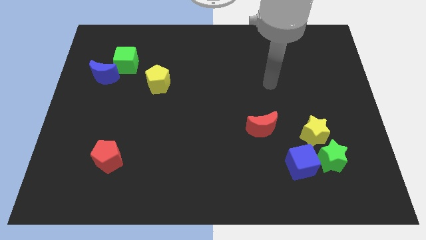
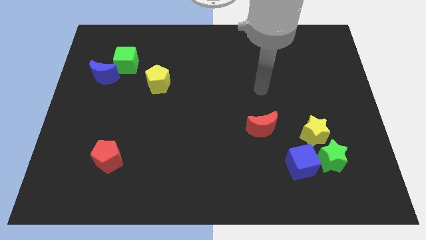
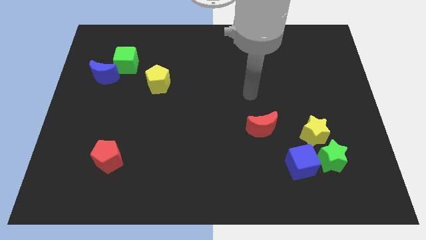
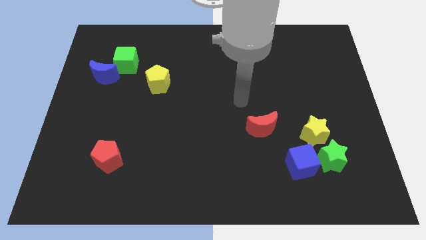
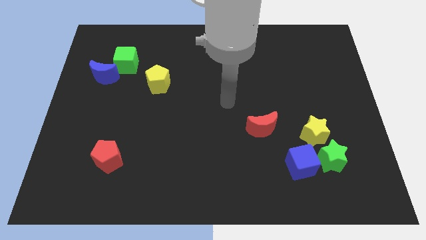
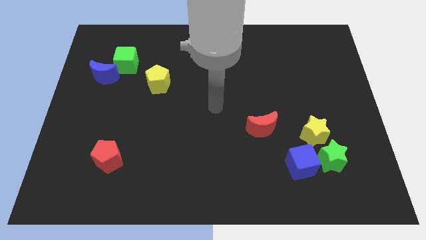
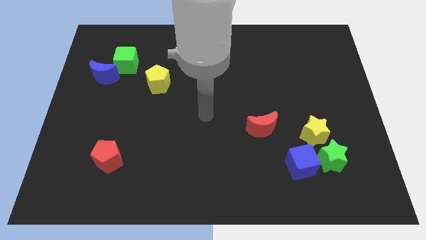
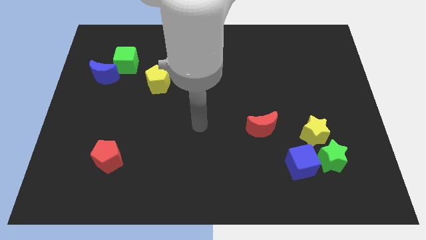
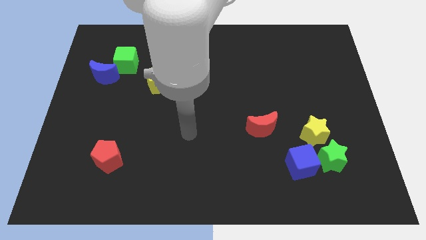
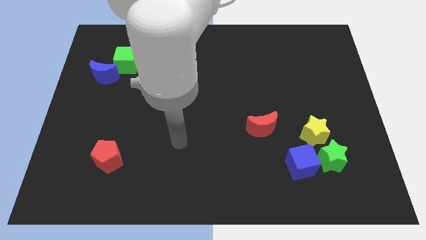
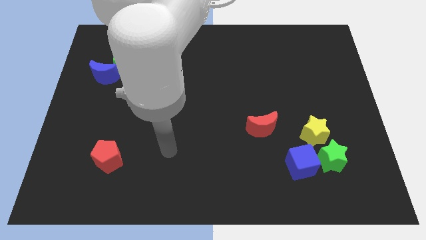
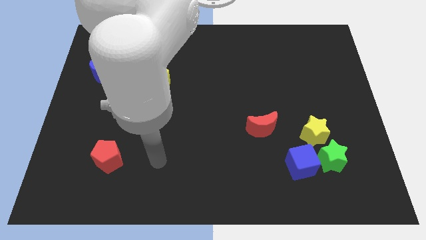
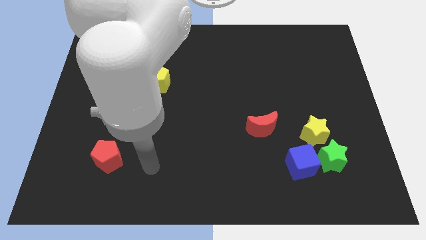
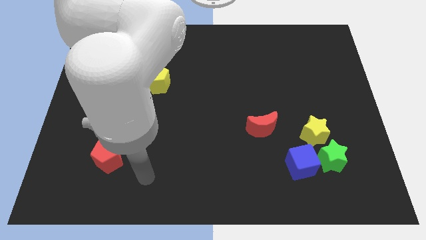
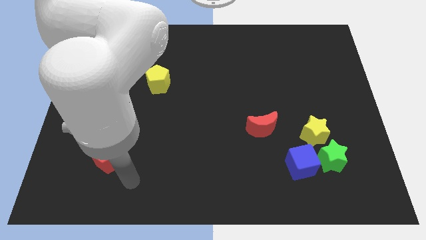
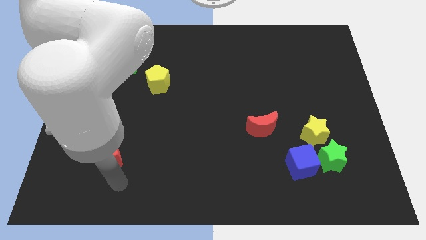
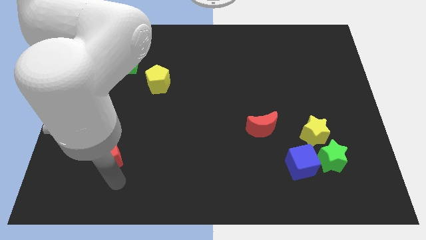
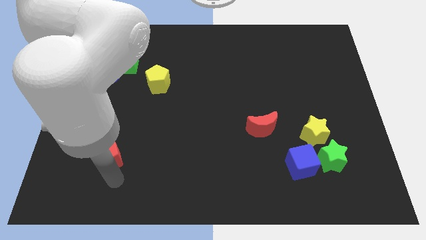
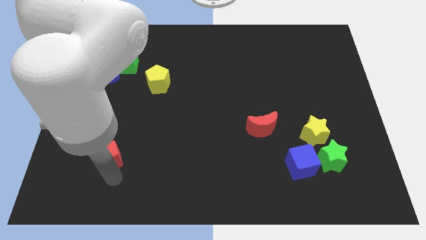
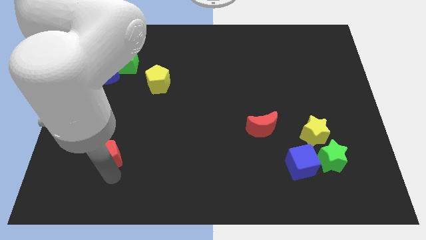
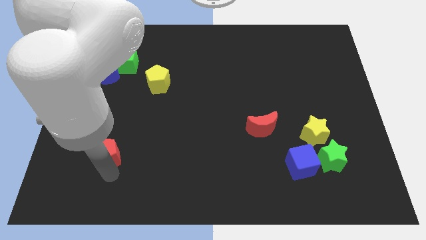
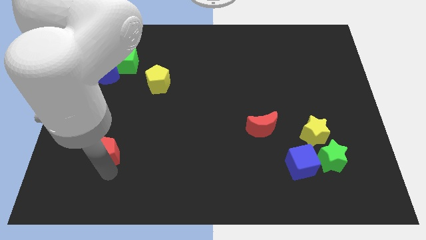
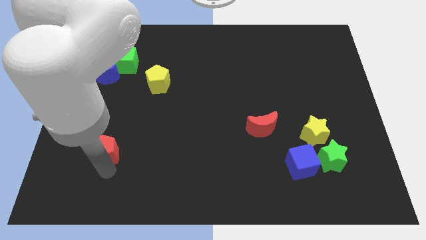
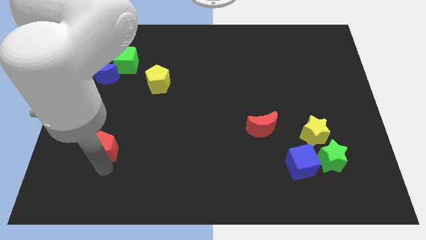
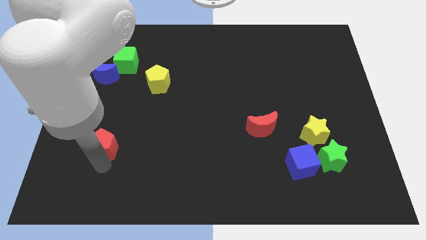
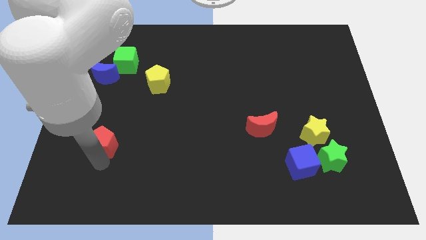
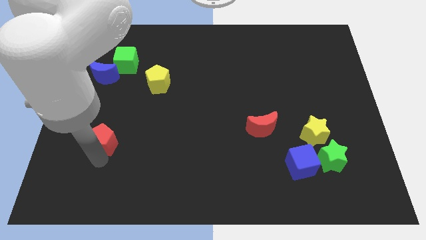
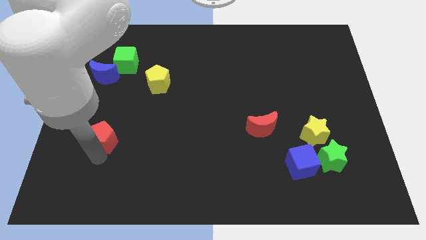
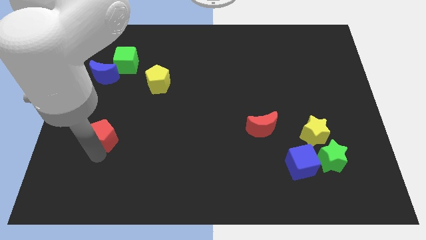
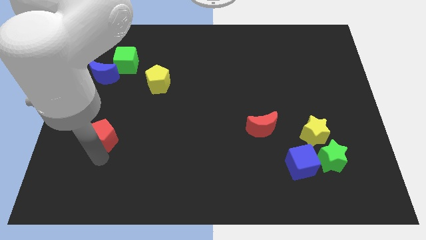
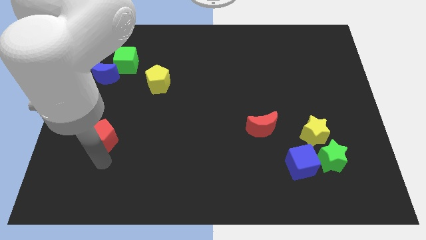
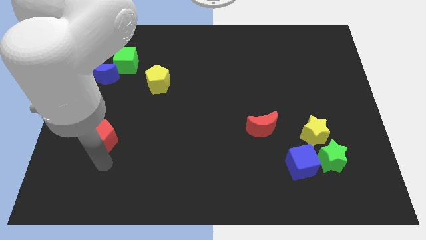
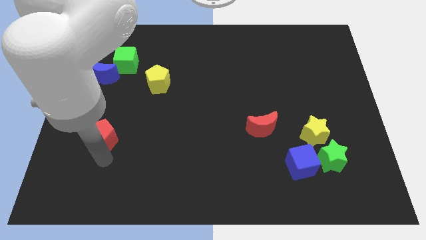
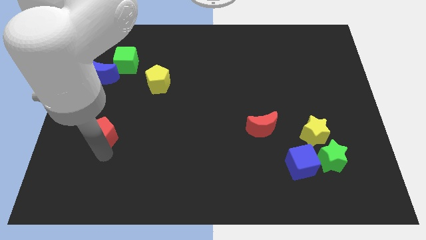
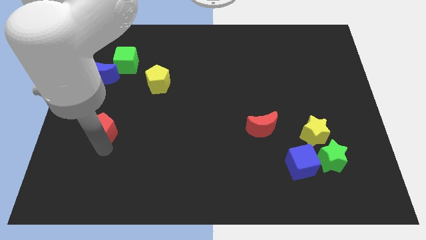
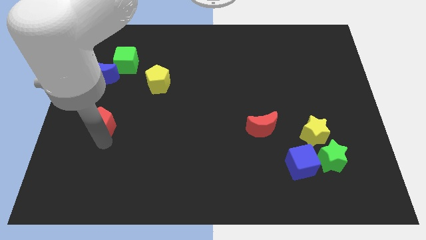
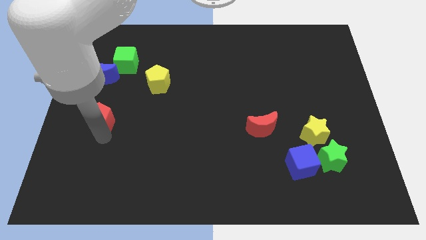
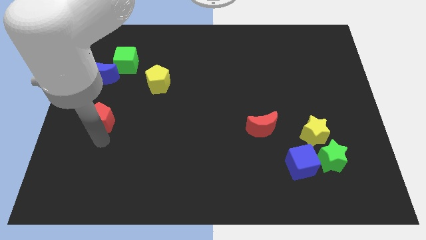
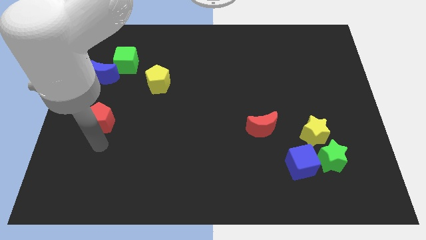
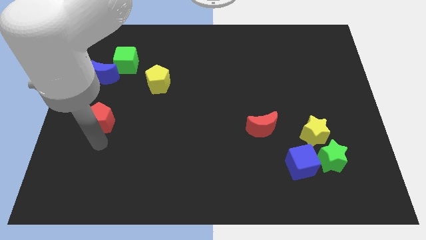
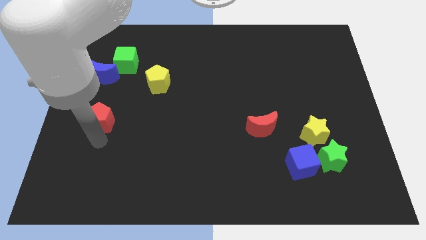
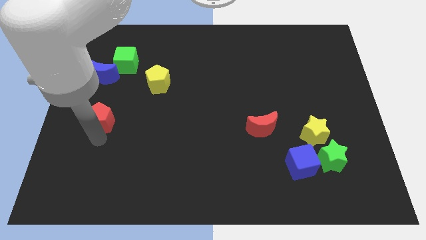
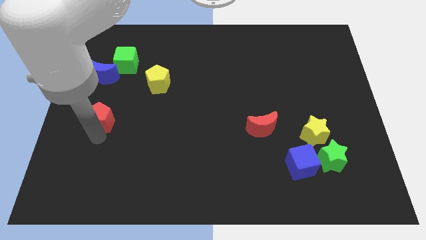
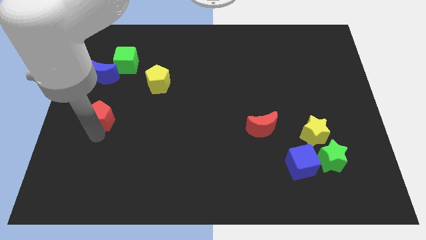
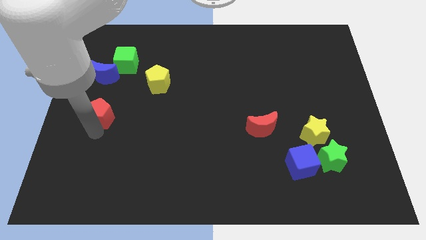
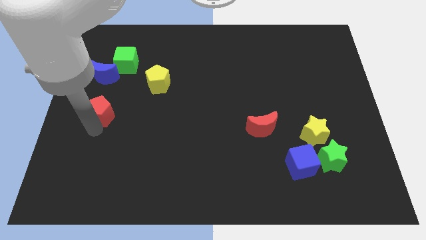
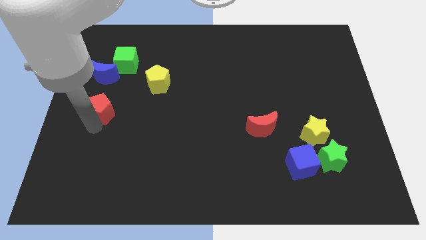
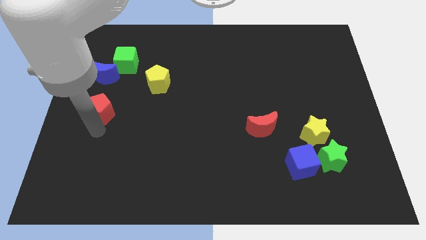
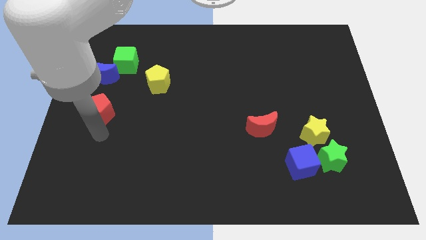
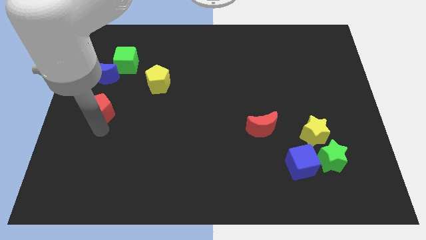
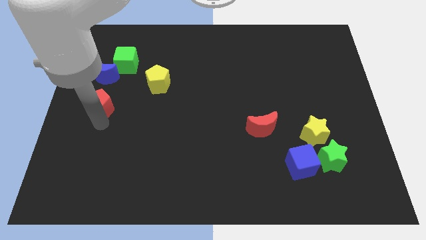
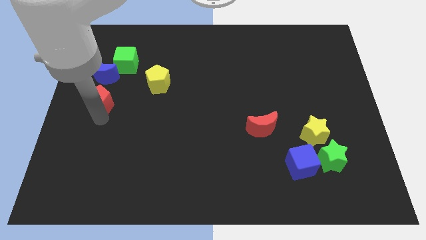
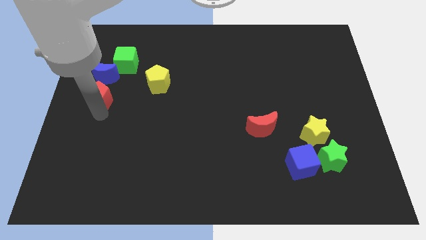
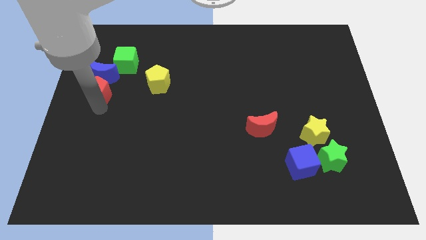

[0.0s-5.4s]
push the red pentagon to the blue moon

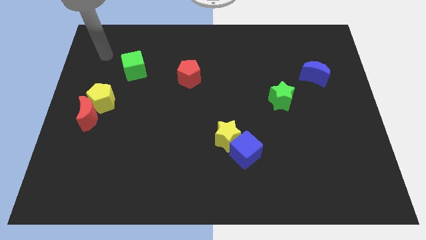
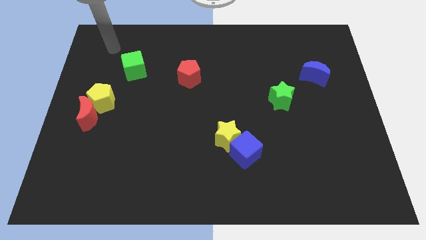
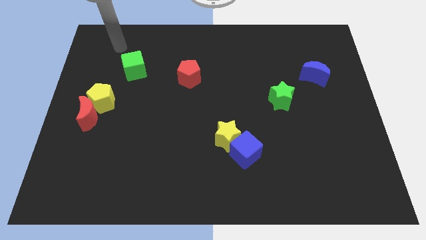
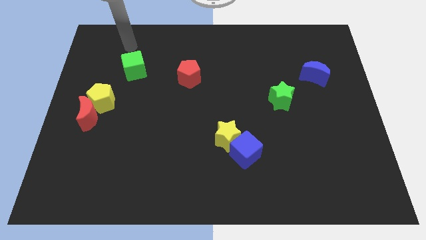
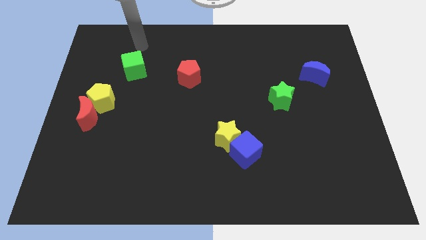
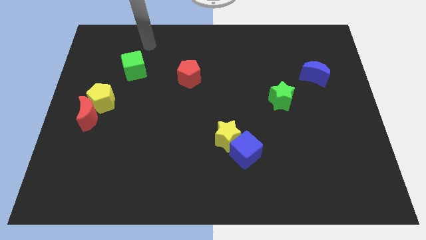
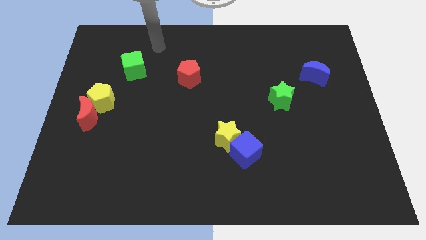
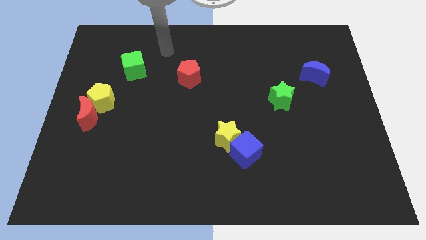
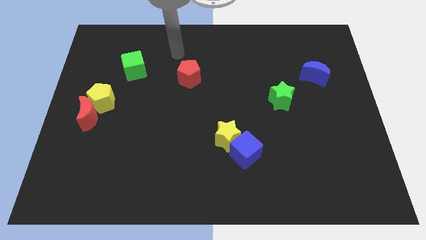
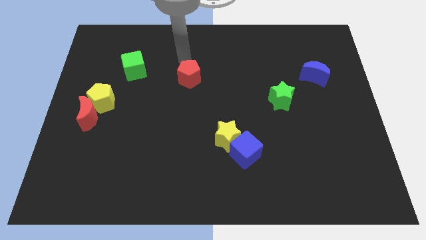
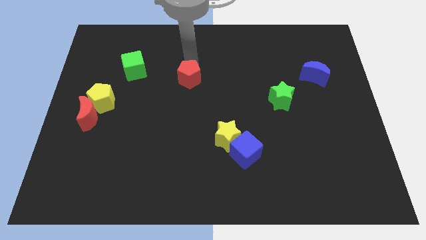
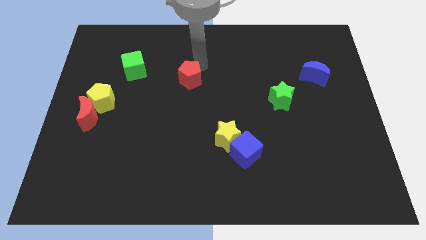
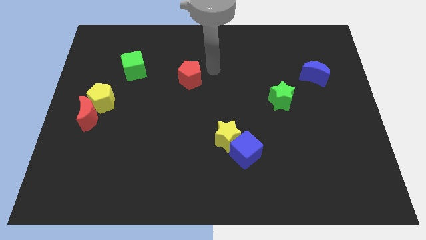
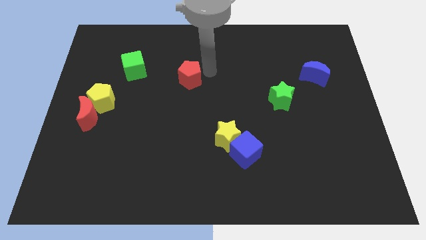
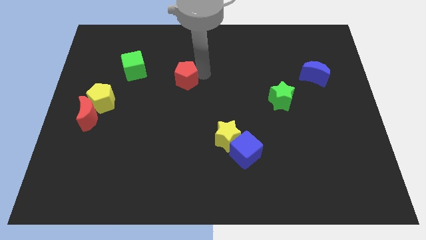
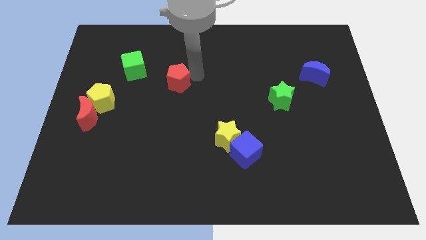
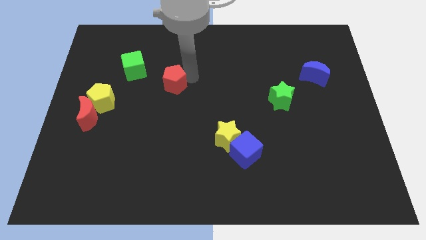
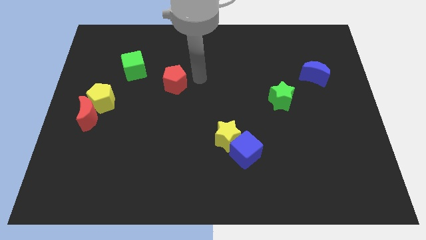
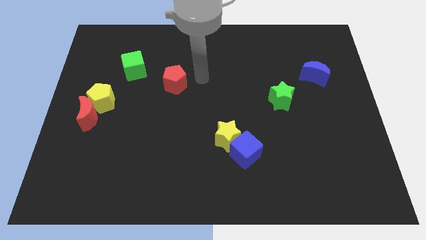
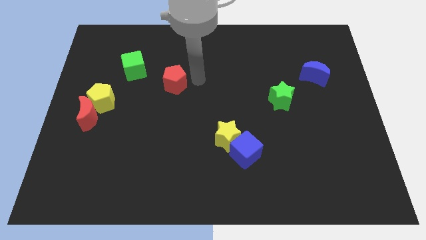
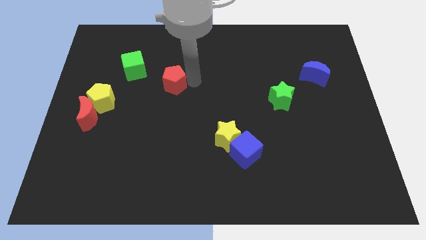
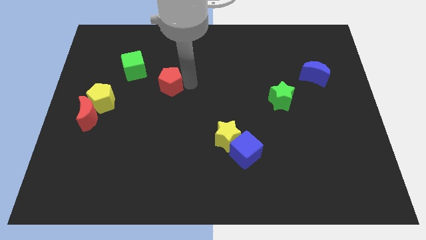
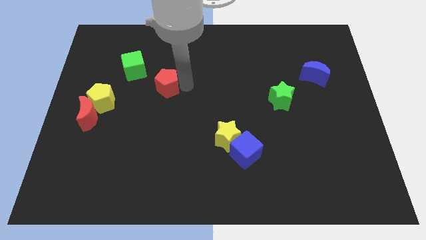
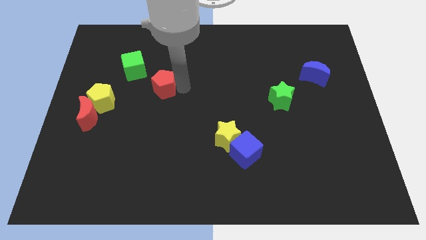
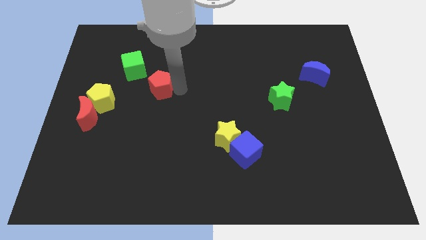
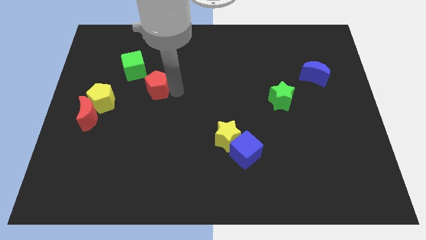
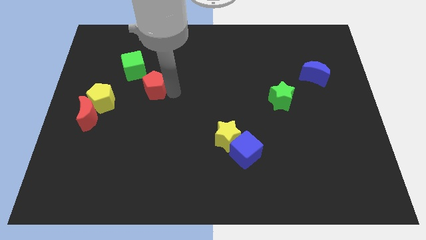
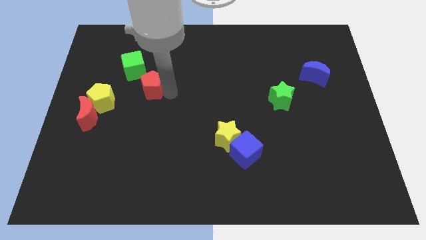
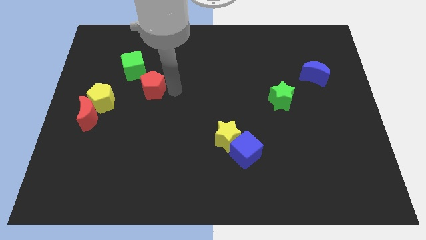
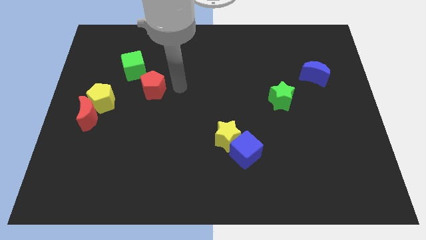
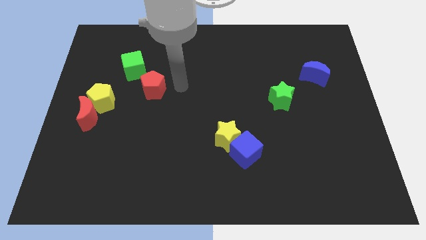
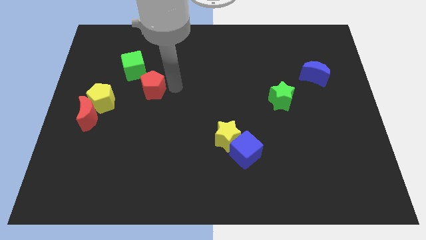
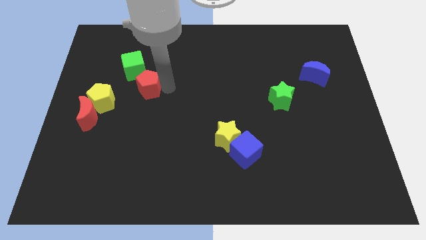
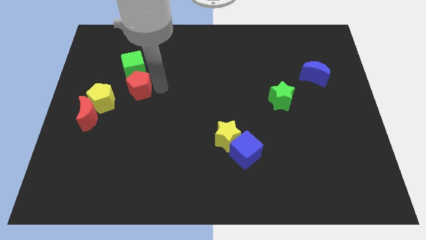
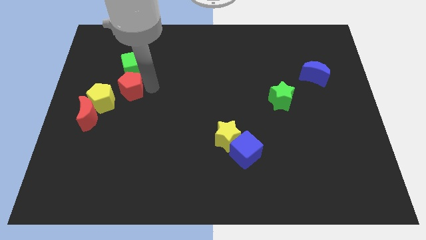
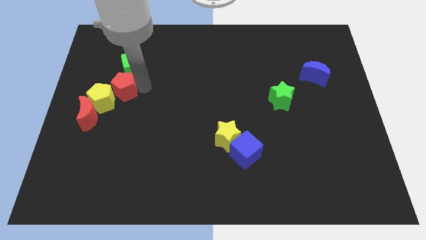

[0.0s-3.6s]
slide the red pentagon towards the yellow pentagon
